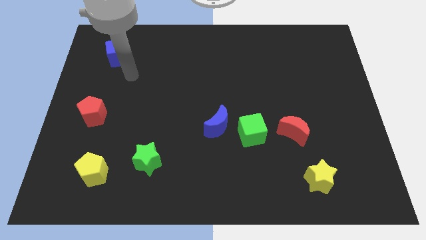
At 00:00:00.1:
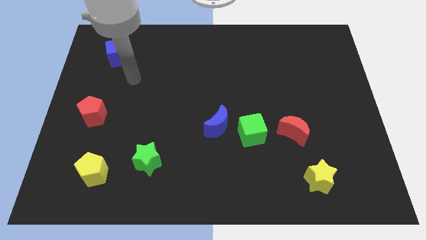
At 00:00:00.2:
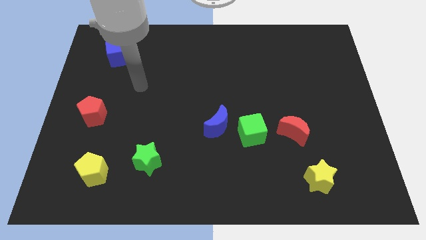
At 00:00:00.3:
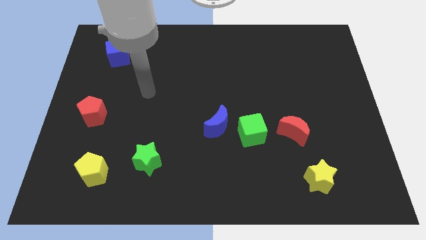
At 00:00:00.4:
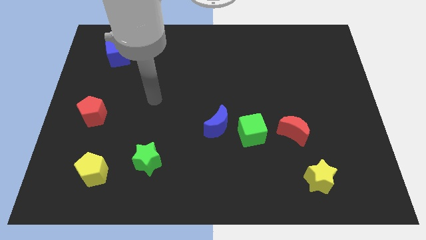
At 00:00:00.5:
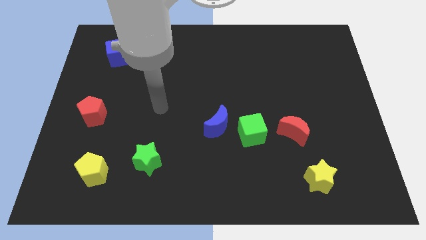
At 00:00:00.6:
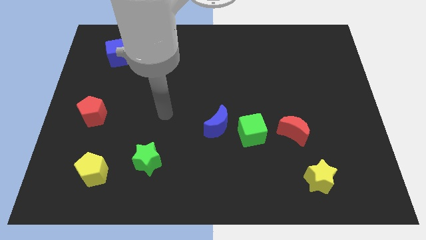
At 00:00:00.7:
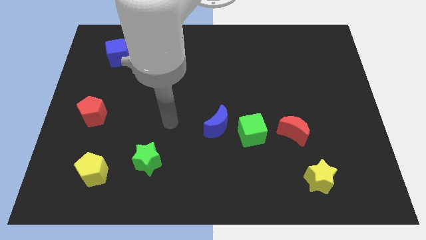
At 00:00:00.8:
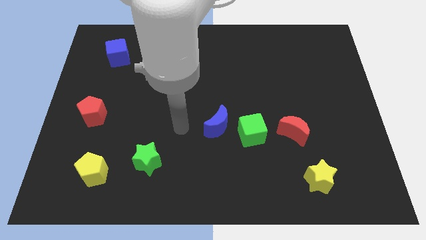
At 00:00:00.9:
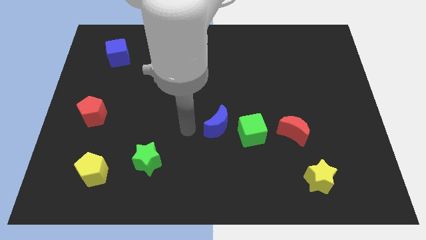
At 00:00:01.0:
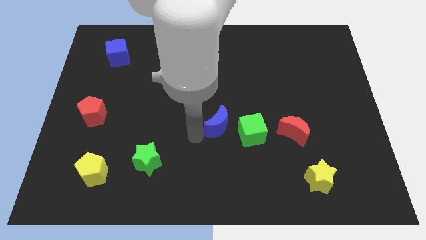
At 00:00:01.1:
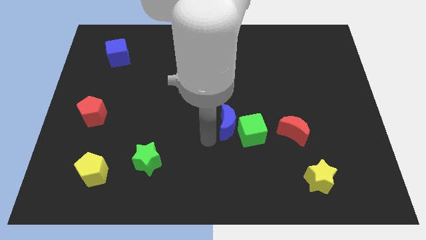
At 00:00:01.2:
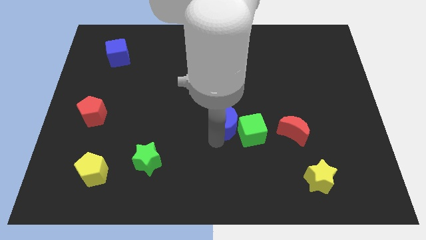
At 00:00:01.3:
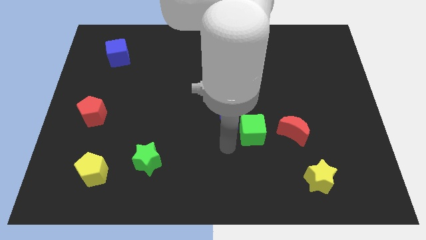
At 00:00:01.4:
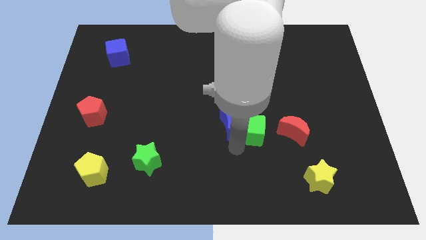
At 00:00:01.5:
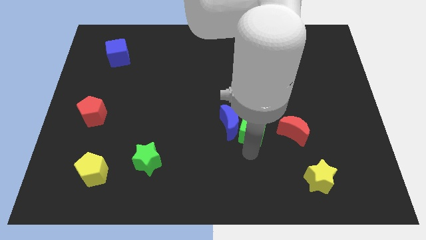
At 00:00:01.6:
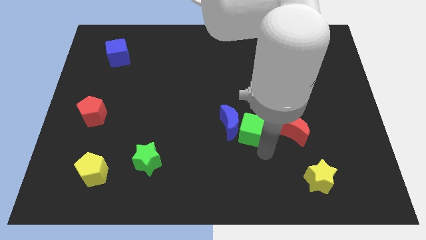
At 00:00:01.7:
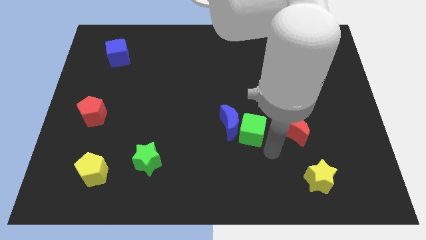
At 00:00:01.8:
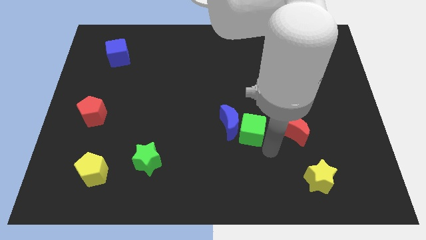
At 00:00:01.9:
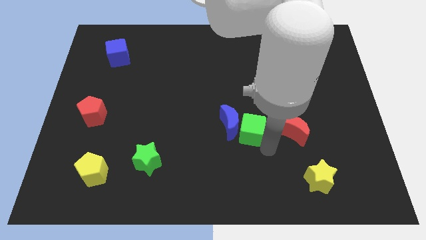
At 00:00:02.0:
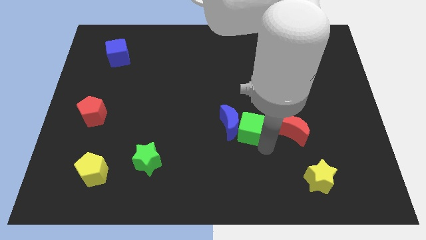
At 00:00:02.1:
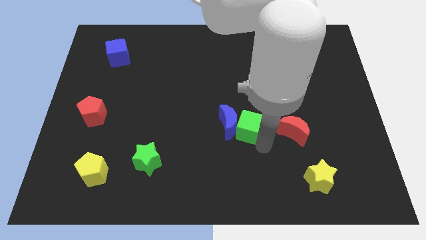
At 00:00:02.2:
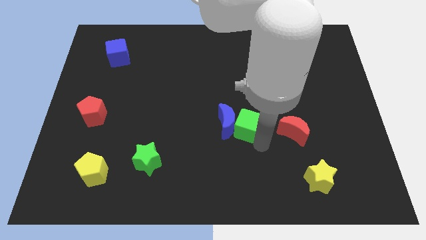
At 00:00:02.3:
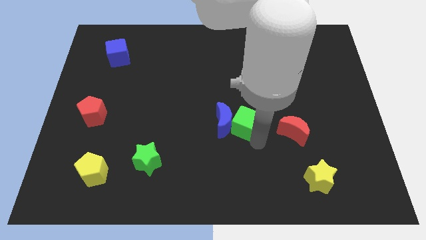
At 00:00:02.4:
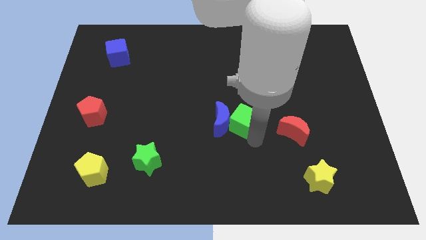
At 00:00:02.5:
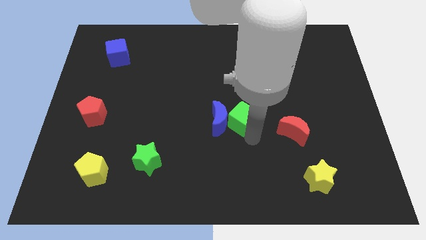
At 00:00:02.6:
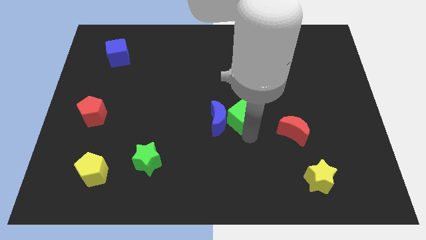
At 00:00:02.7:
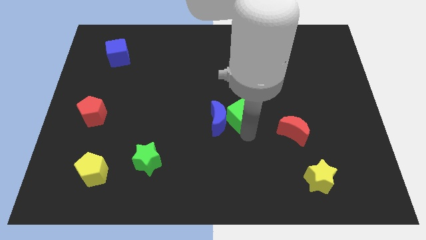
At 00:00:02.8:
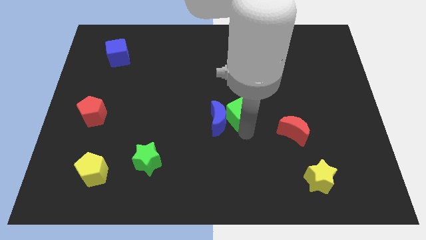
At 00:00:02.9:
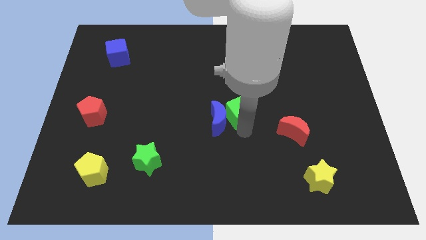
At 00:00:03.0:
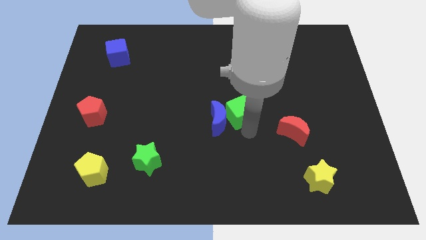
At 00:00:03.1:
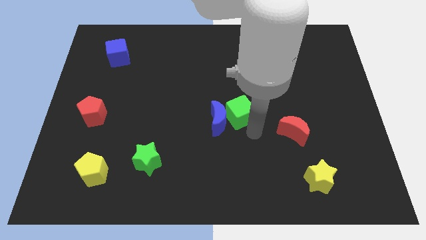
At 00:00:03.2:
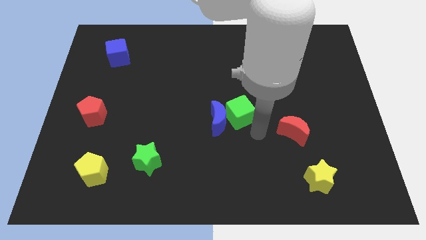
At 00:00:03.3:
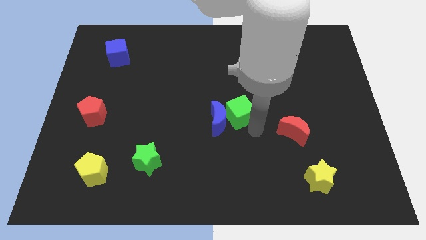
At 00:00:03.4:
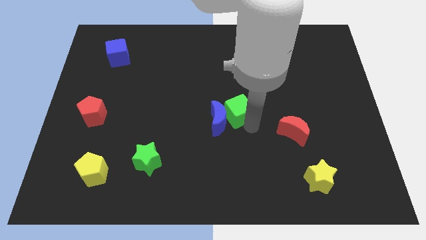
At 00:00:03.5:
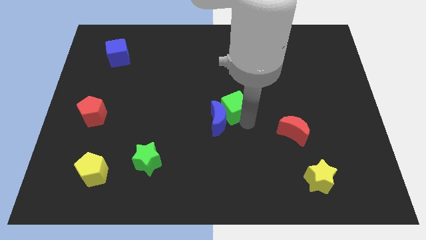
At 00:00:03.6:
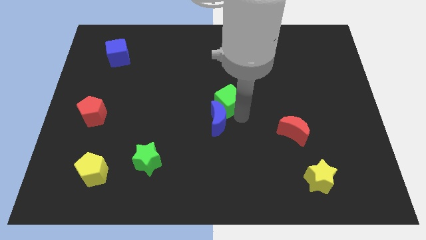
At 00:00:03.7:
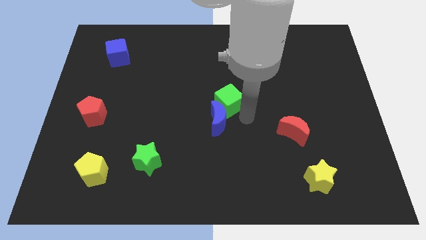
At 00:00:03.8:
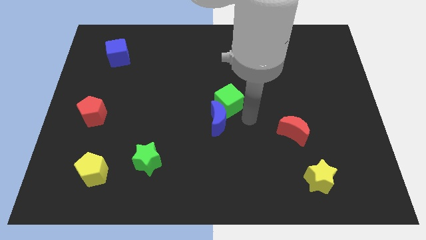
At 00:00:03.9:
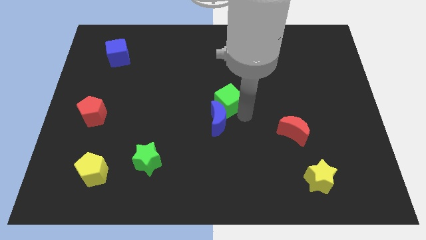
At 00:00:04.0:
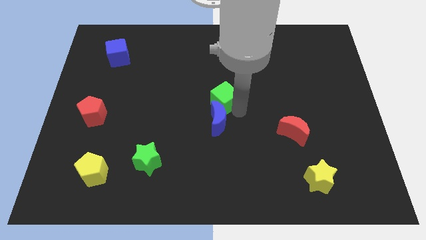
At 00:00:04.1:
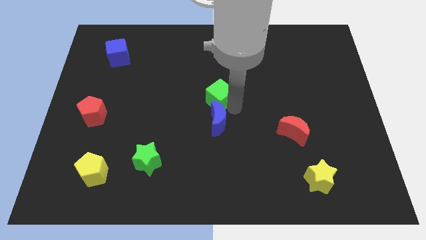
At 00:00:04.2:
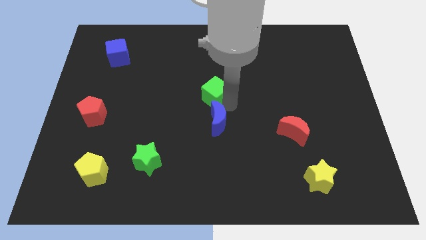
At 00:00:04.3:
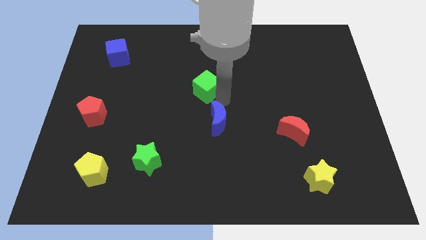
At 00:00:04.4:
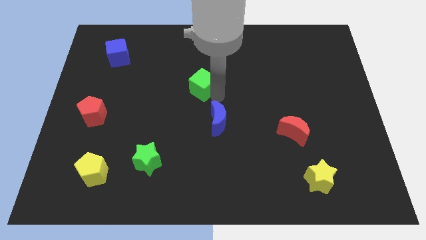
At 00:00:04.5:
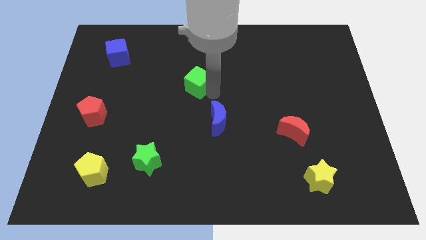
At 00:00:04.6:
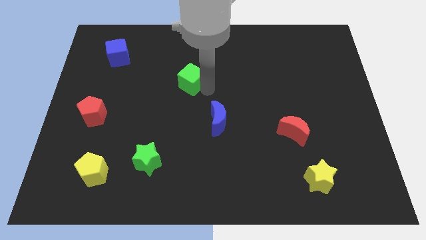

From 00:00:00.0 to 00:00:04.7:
push the green cube upwards and left

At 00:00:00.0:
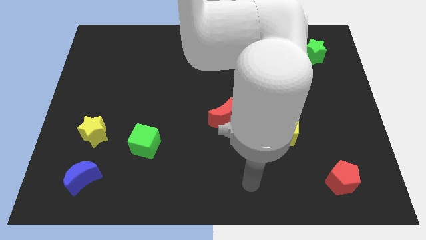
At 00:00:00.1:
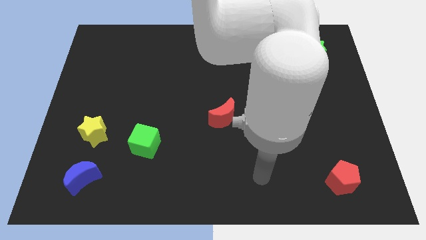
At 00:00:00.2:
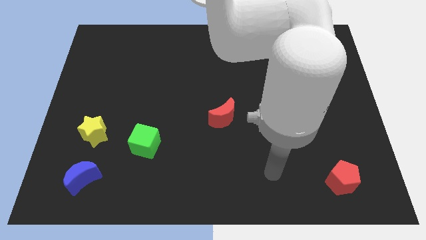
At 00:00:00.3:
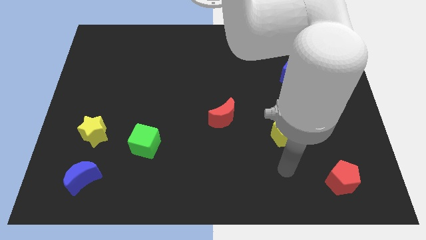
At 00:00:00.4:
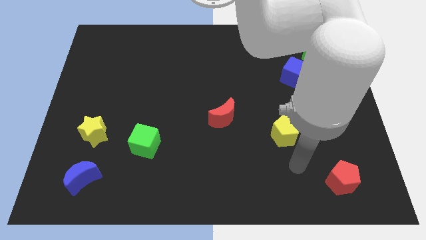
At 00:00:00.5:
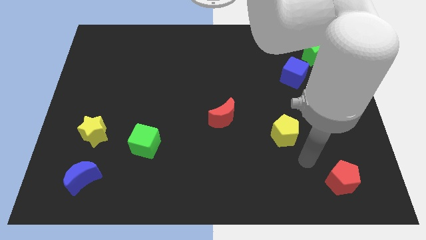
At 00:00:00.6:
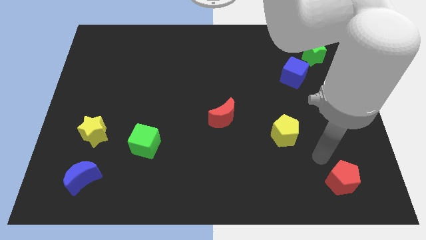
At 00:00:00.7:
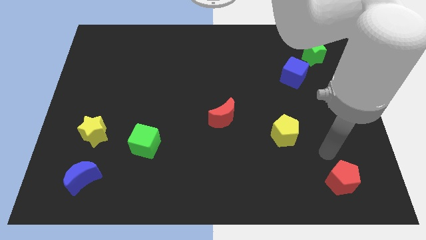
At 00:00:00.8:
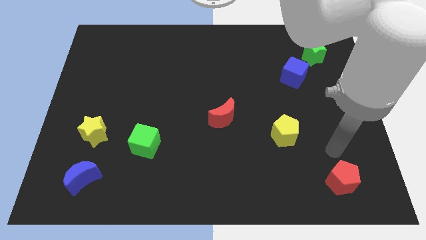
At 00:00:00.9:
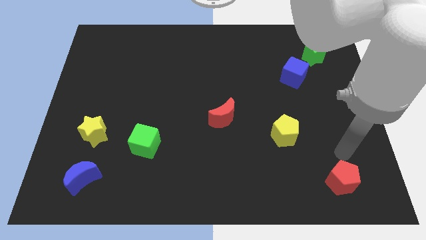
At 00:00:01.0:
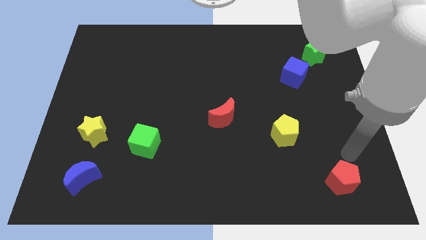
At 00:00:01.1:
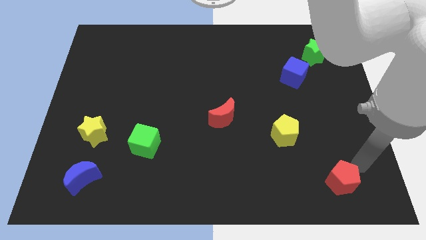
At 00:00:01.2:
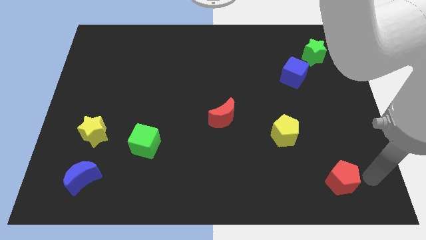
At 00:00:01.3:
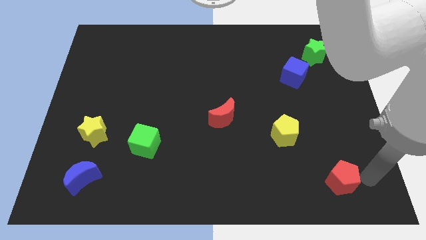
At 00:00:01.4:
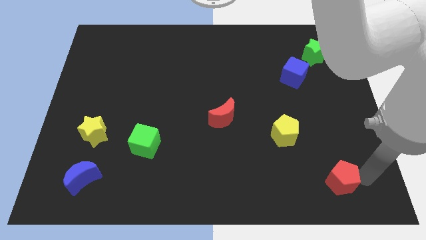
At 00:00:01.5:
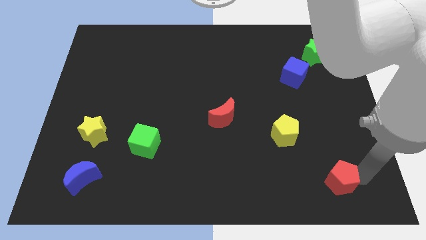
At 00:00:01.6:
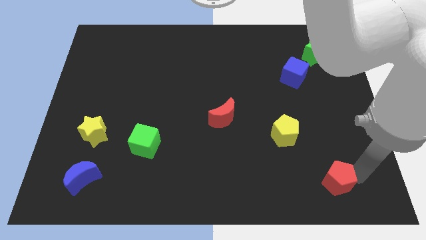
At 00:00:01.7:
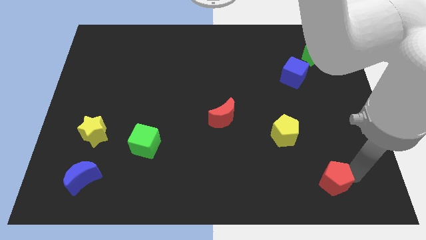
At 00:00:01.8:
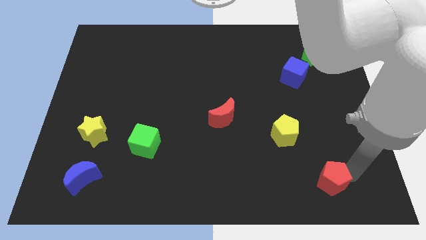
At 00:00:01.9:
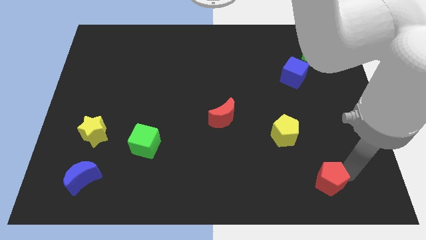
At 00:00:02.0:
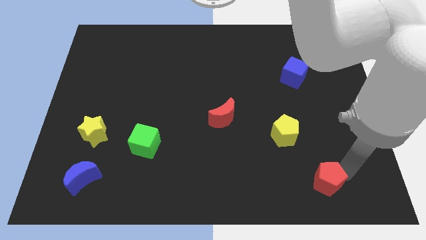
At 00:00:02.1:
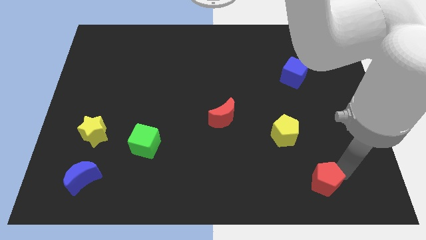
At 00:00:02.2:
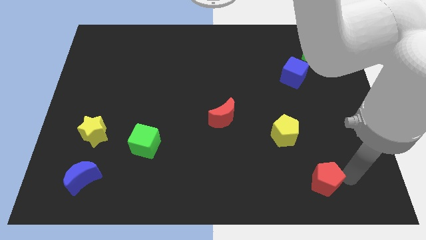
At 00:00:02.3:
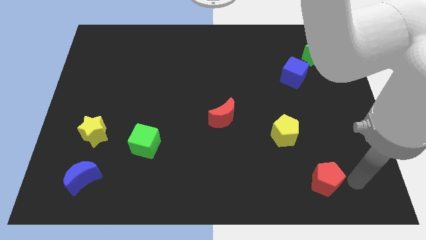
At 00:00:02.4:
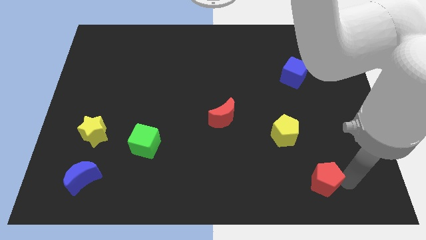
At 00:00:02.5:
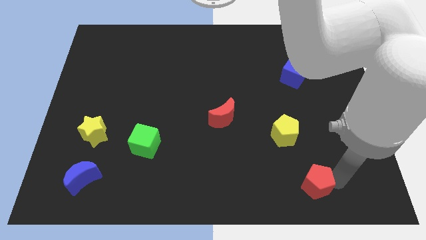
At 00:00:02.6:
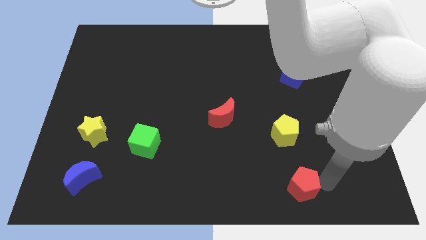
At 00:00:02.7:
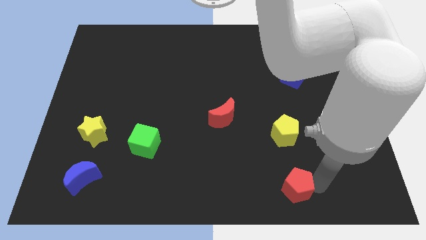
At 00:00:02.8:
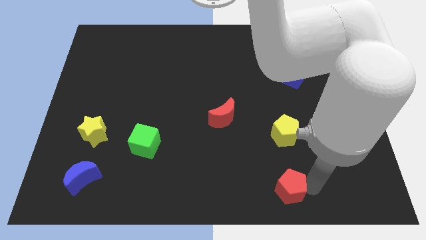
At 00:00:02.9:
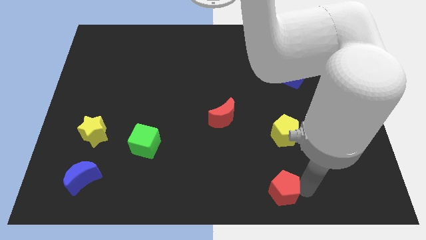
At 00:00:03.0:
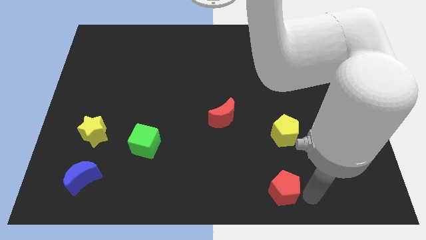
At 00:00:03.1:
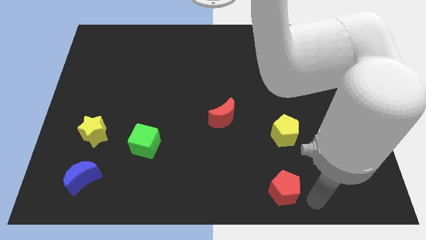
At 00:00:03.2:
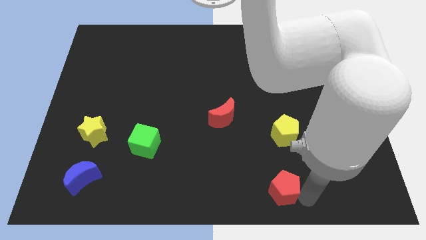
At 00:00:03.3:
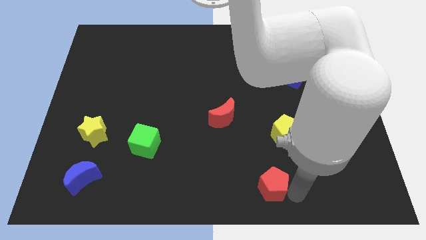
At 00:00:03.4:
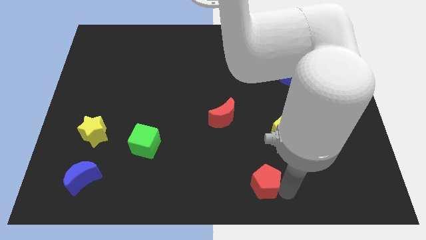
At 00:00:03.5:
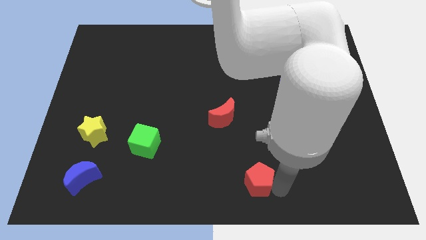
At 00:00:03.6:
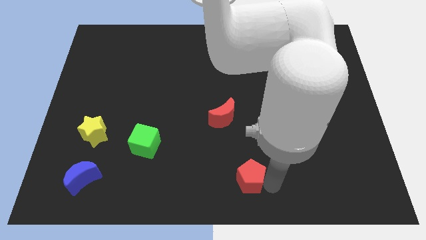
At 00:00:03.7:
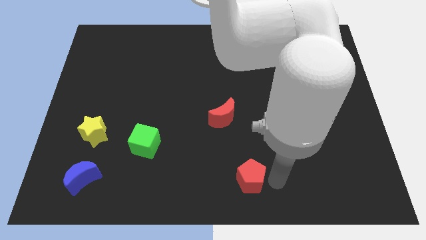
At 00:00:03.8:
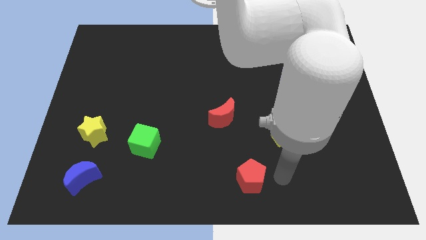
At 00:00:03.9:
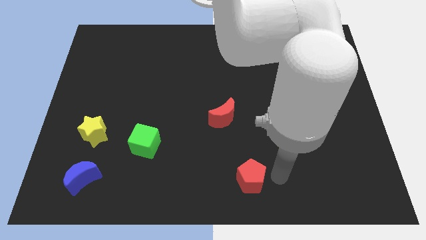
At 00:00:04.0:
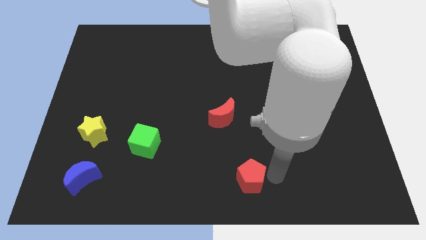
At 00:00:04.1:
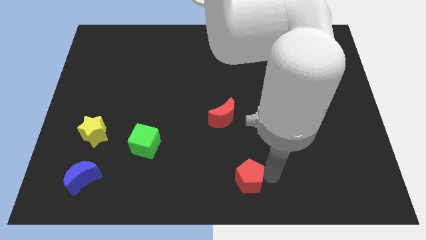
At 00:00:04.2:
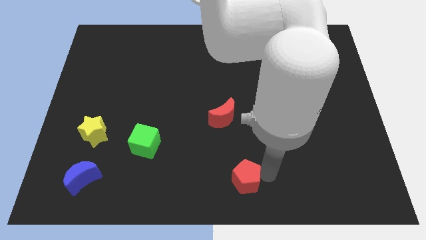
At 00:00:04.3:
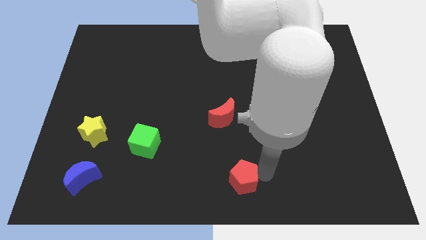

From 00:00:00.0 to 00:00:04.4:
push the red pentagon left
